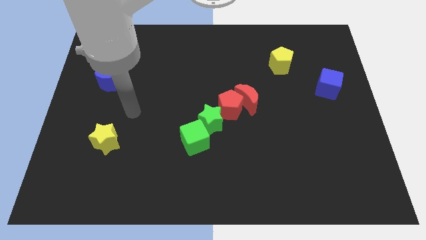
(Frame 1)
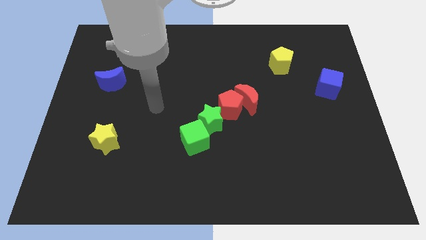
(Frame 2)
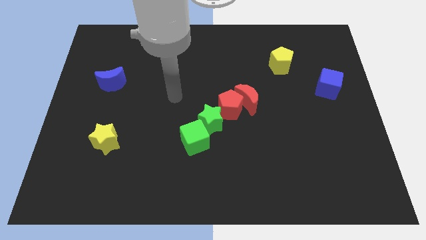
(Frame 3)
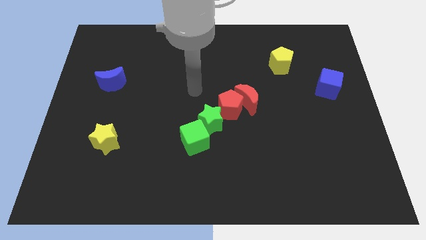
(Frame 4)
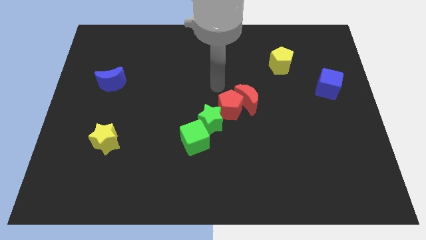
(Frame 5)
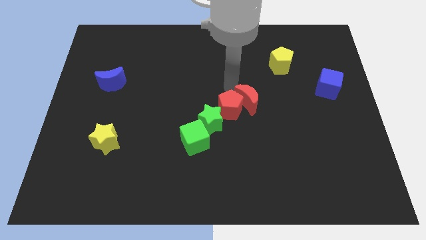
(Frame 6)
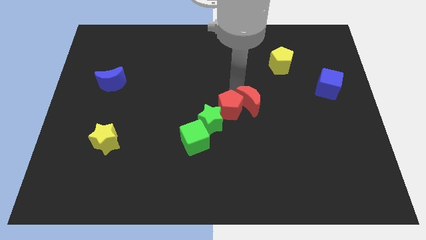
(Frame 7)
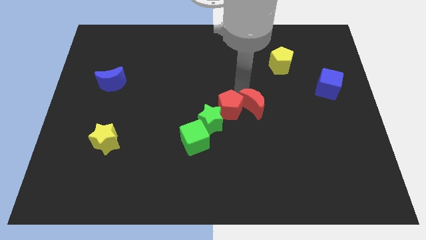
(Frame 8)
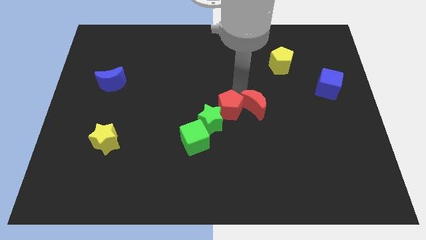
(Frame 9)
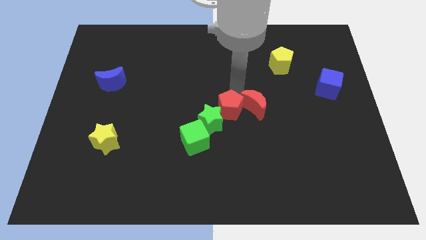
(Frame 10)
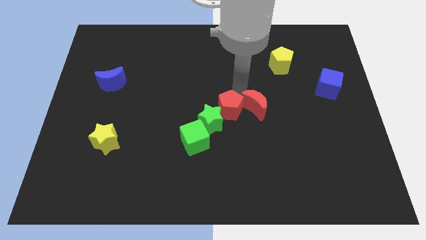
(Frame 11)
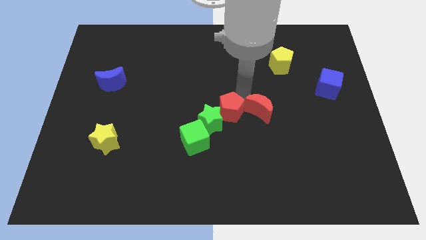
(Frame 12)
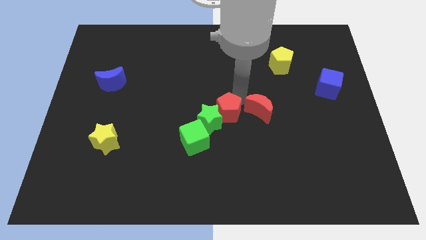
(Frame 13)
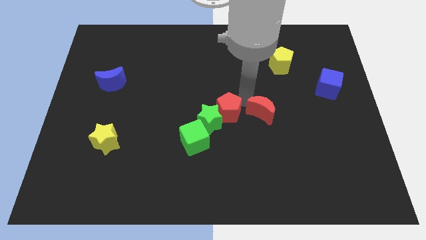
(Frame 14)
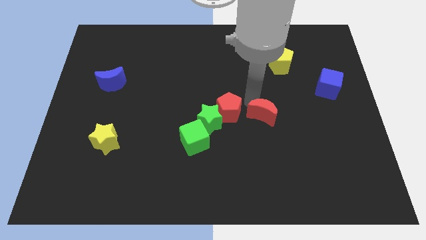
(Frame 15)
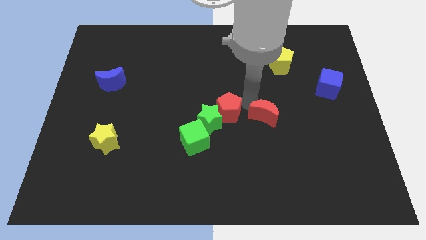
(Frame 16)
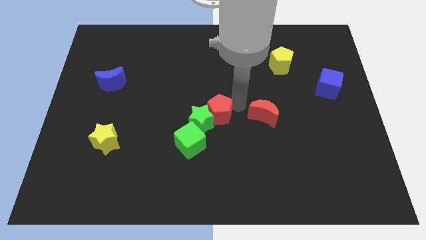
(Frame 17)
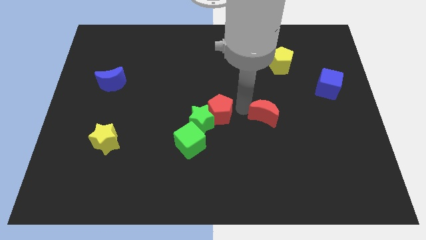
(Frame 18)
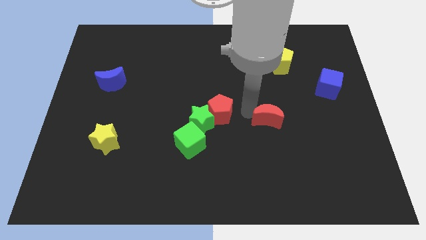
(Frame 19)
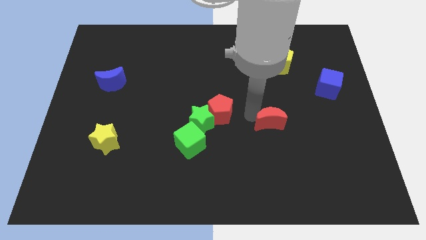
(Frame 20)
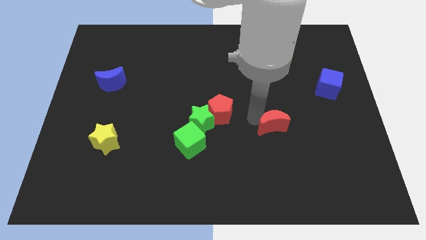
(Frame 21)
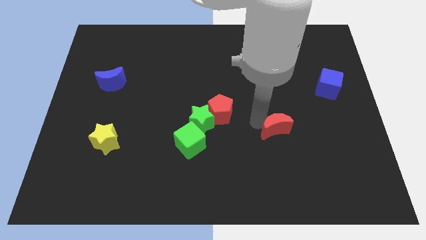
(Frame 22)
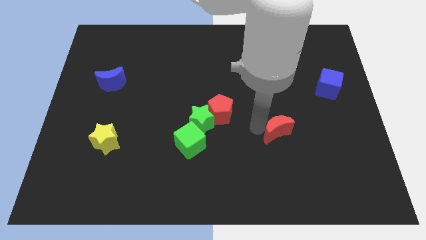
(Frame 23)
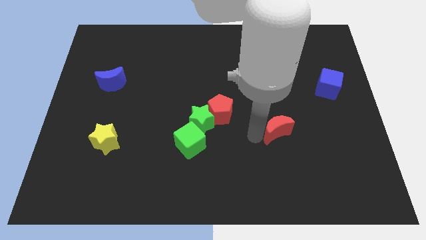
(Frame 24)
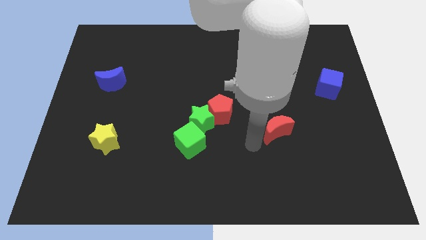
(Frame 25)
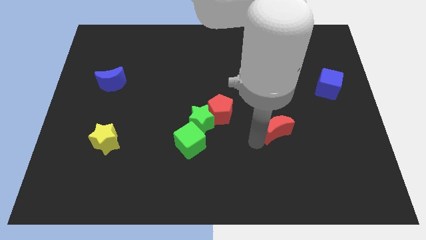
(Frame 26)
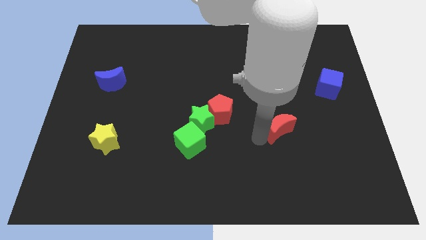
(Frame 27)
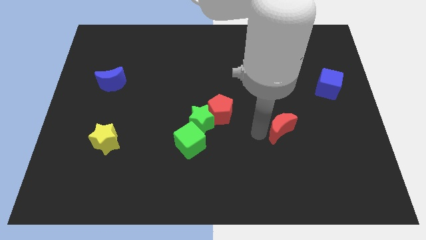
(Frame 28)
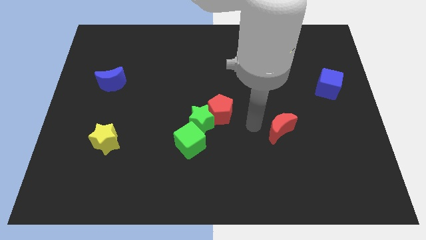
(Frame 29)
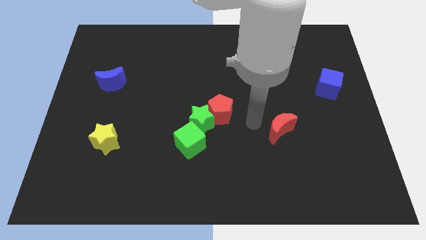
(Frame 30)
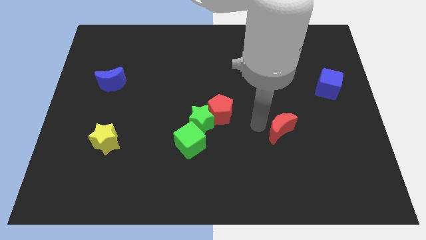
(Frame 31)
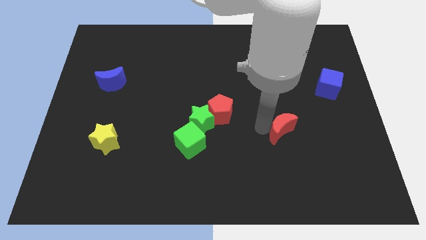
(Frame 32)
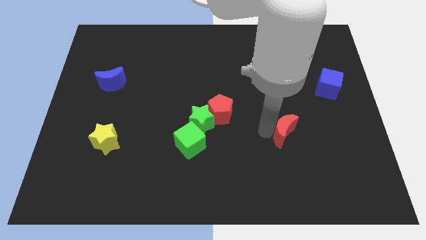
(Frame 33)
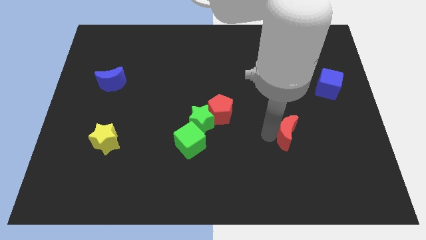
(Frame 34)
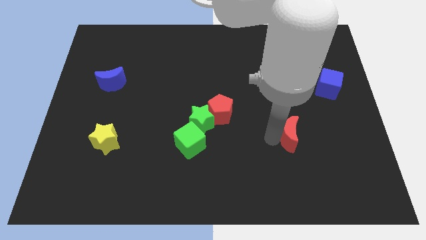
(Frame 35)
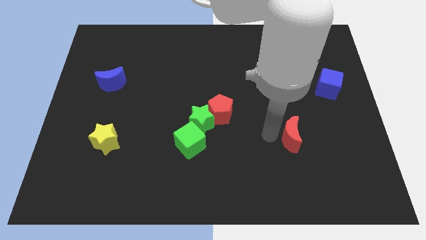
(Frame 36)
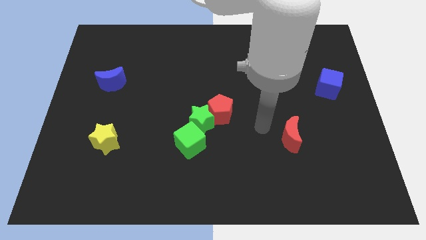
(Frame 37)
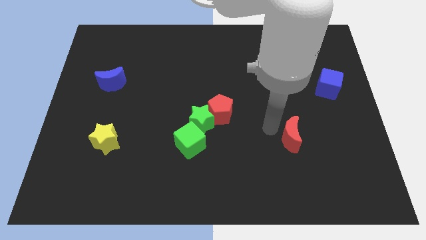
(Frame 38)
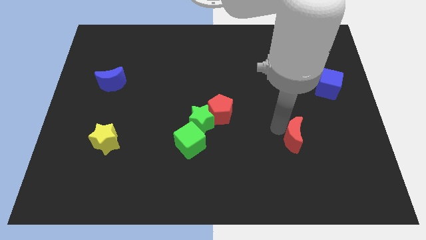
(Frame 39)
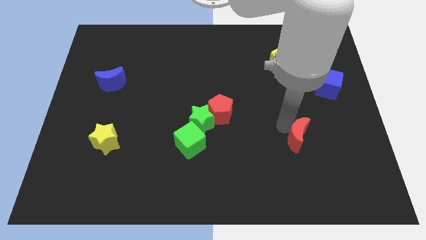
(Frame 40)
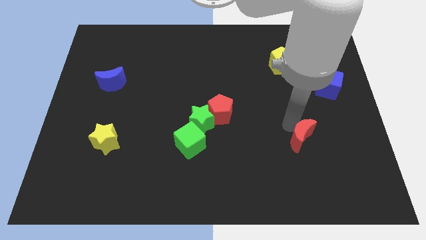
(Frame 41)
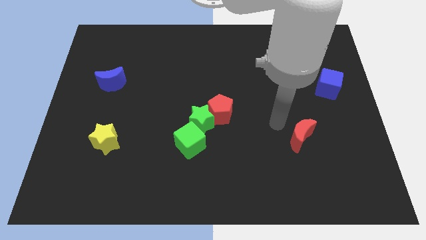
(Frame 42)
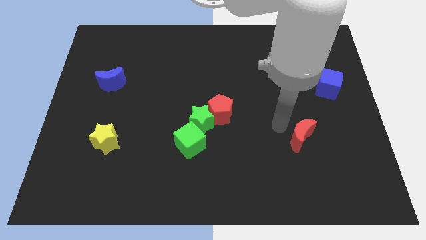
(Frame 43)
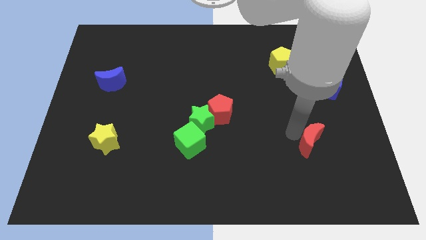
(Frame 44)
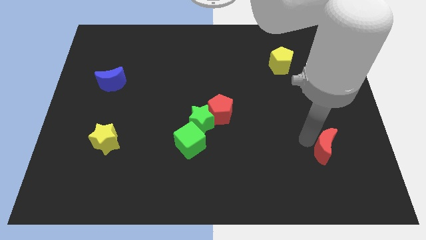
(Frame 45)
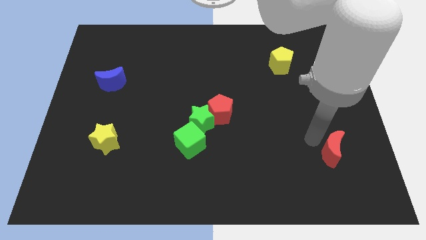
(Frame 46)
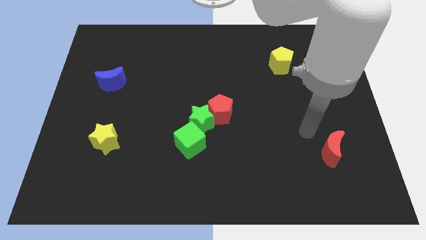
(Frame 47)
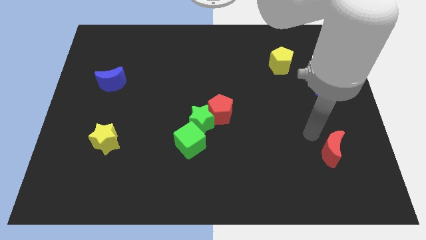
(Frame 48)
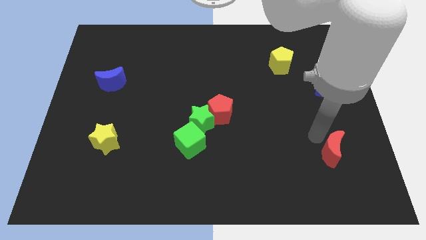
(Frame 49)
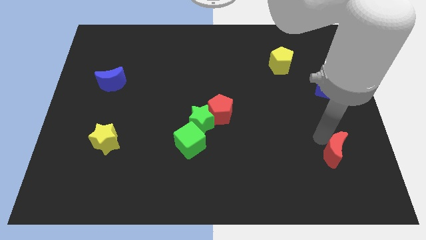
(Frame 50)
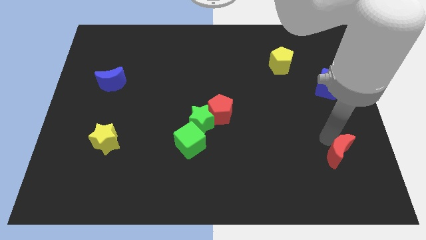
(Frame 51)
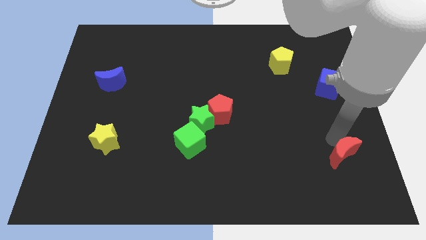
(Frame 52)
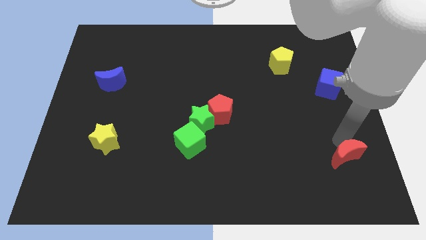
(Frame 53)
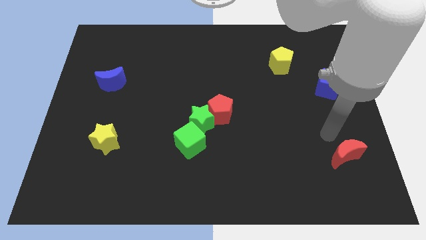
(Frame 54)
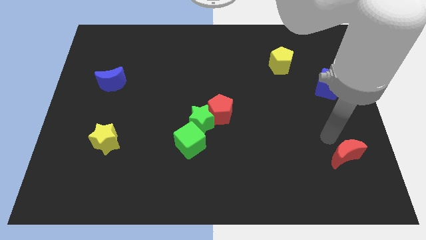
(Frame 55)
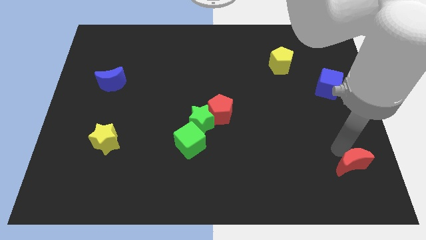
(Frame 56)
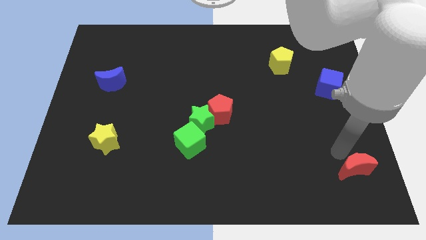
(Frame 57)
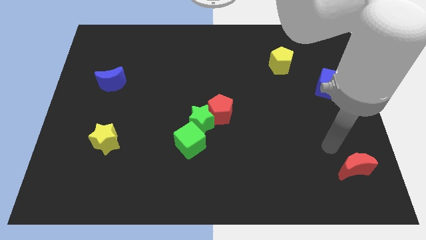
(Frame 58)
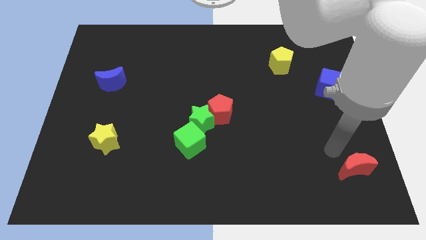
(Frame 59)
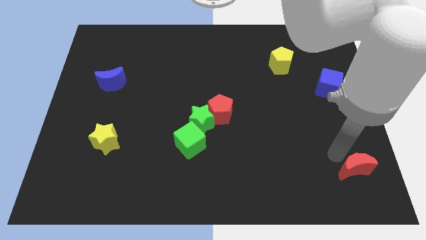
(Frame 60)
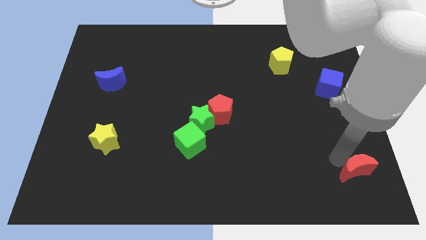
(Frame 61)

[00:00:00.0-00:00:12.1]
put the red moon to the lower right corner

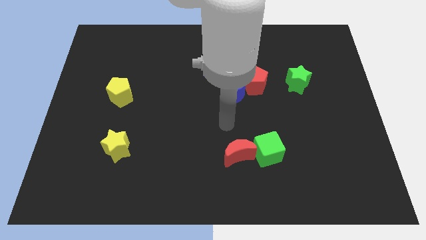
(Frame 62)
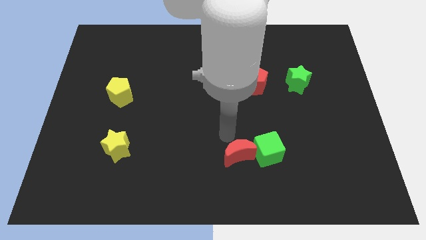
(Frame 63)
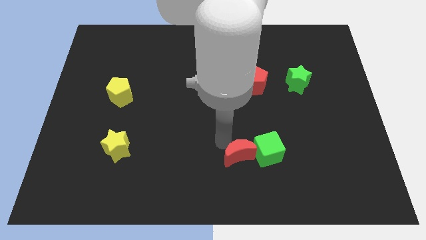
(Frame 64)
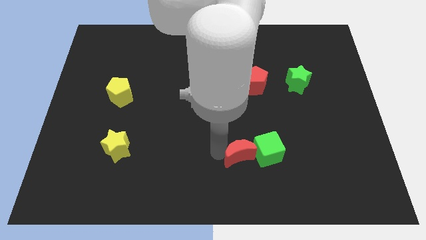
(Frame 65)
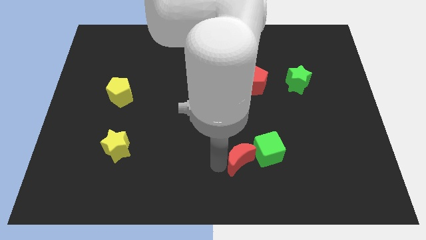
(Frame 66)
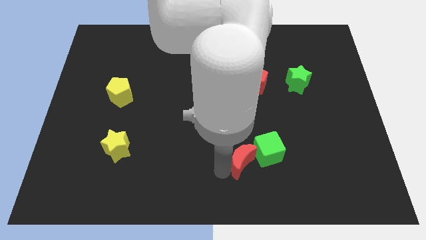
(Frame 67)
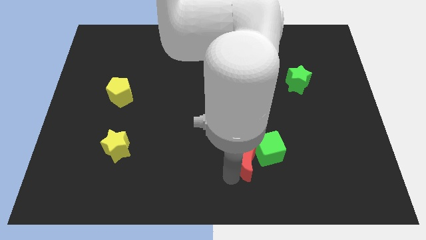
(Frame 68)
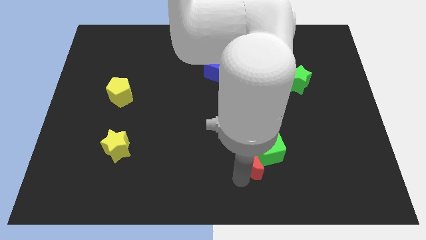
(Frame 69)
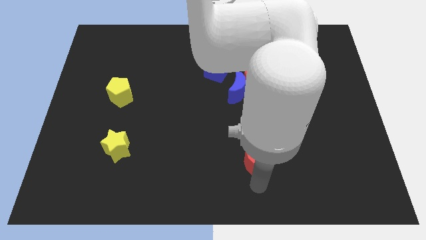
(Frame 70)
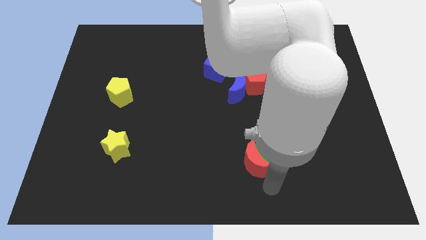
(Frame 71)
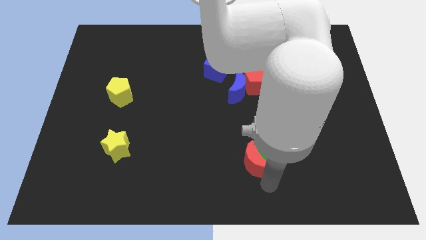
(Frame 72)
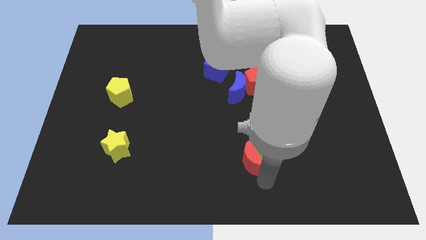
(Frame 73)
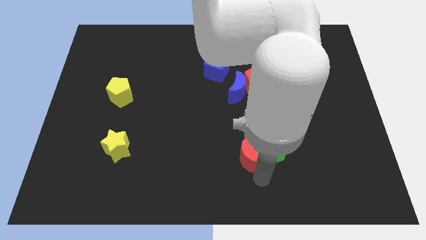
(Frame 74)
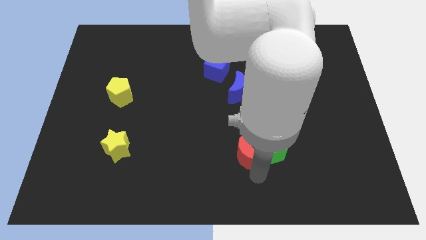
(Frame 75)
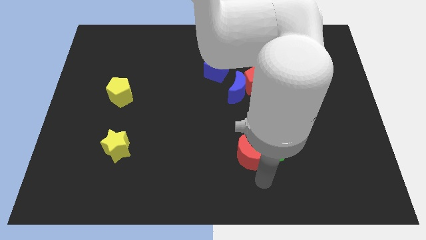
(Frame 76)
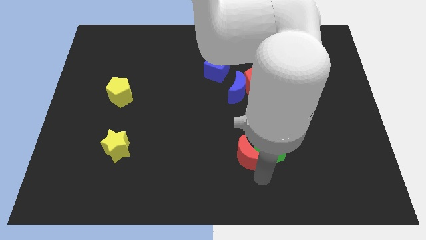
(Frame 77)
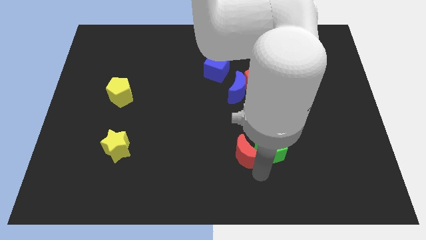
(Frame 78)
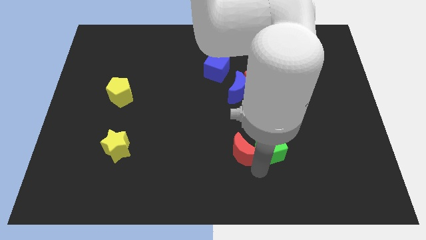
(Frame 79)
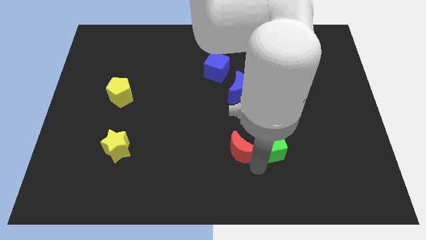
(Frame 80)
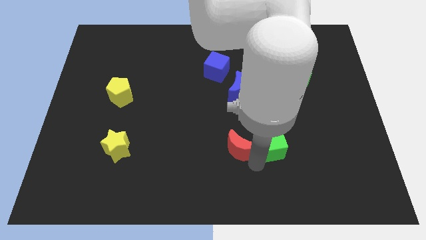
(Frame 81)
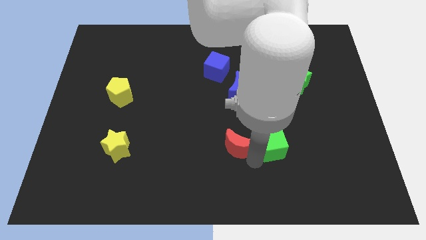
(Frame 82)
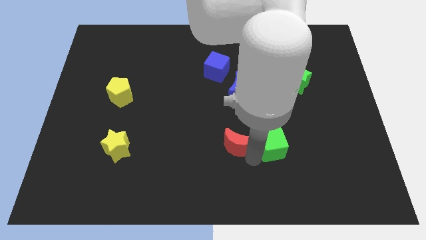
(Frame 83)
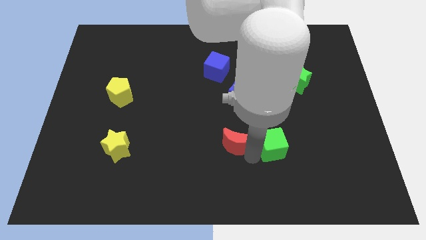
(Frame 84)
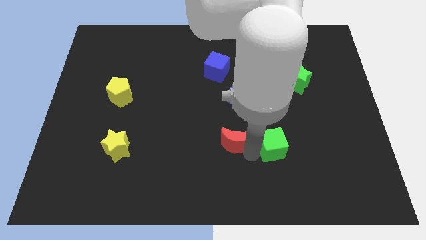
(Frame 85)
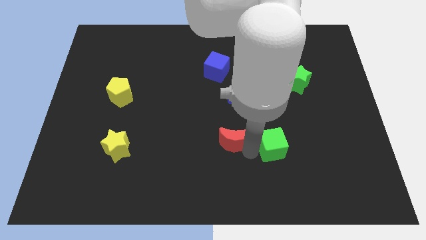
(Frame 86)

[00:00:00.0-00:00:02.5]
push the red moon to the middle
